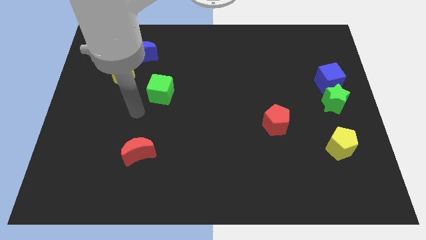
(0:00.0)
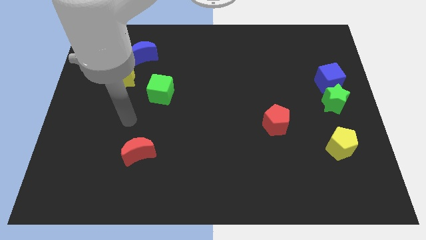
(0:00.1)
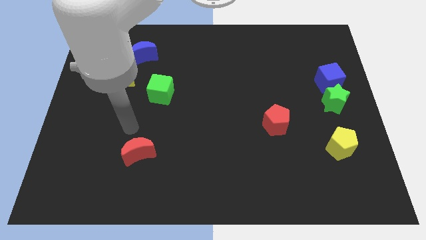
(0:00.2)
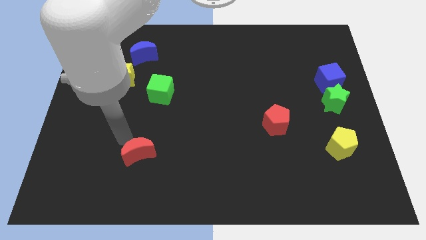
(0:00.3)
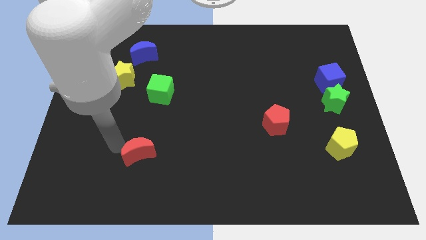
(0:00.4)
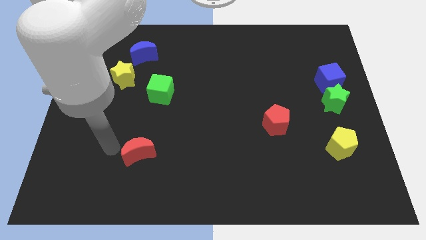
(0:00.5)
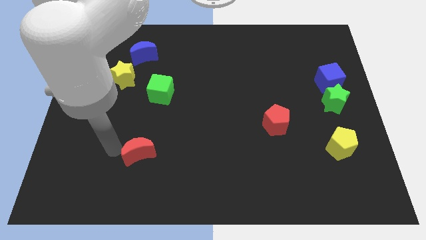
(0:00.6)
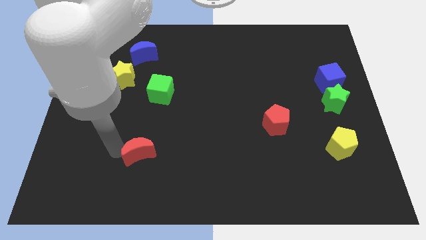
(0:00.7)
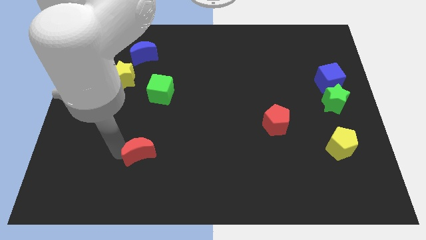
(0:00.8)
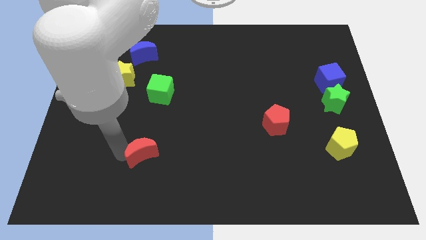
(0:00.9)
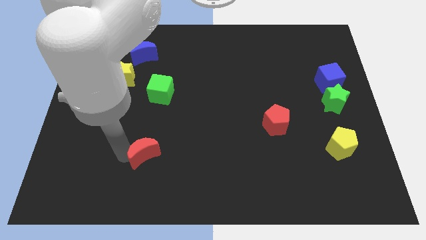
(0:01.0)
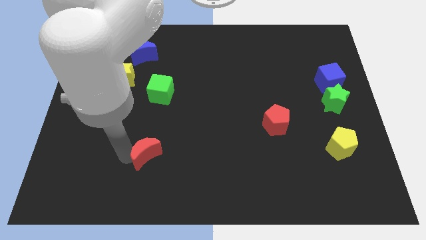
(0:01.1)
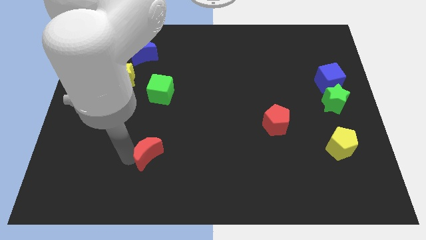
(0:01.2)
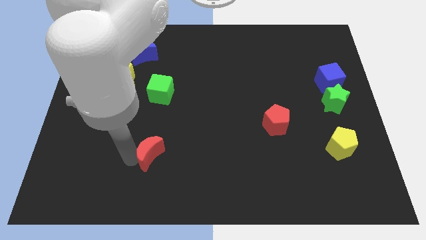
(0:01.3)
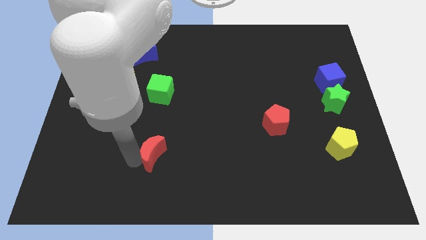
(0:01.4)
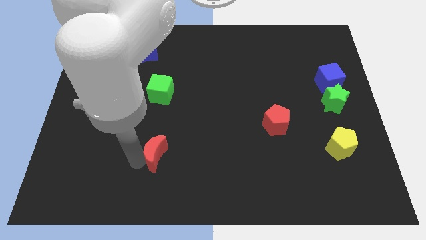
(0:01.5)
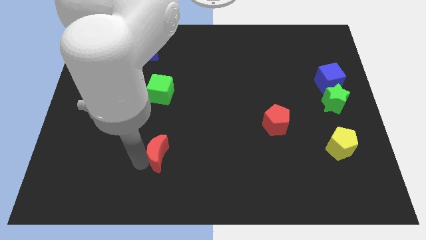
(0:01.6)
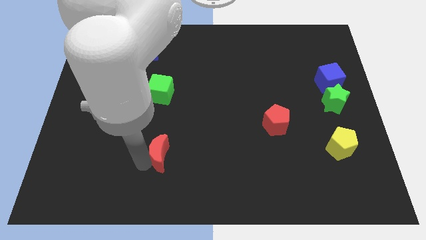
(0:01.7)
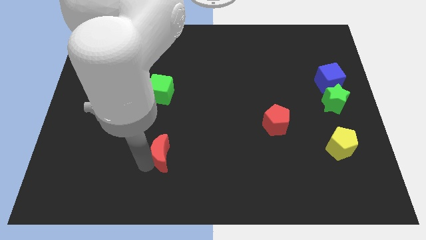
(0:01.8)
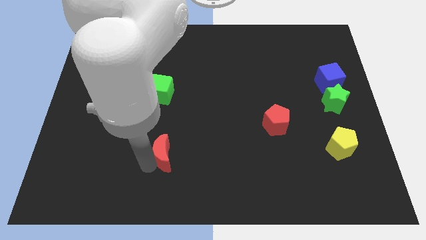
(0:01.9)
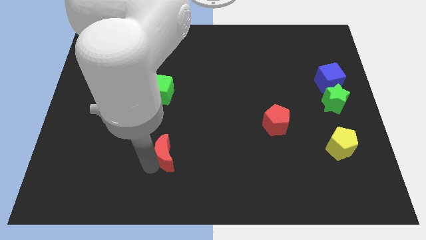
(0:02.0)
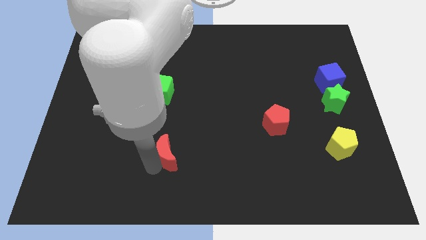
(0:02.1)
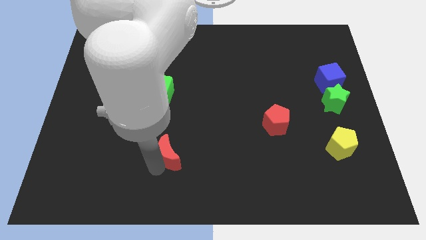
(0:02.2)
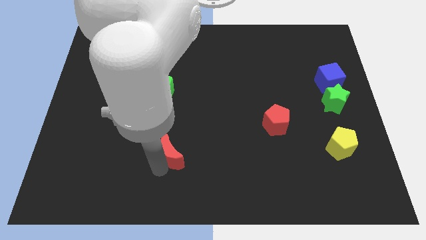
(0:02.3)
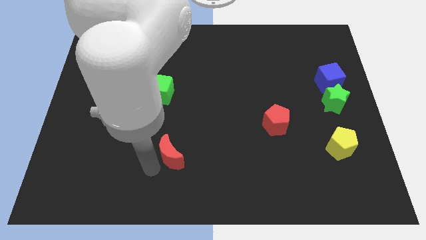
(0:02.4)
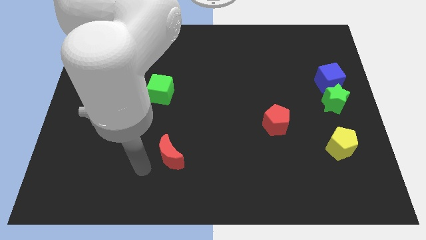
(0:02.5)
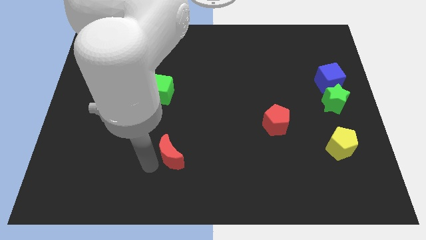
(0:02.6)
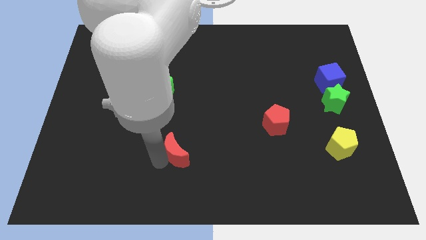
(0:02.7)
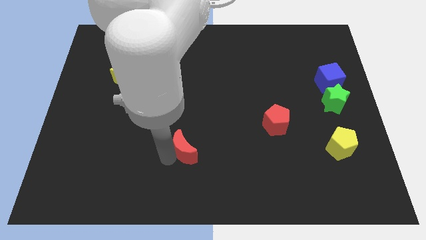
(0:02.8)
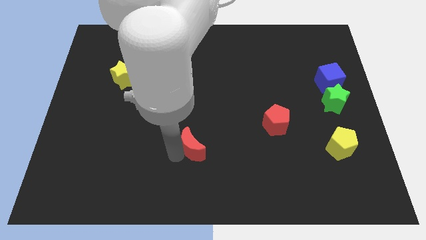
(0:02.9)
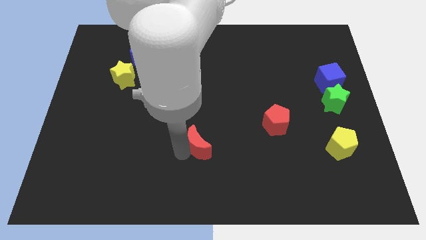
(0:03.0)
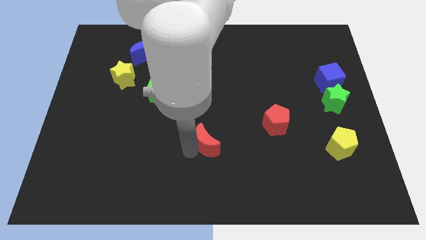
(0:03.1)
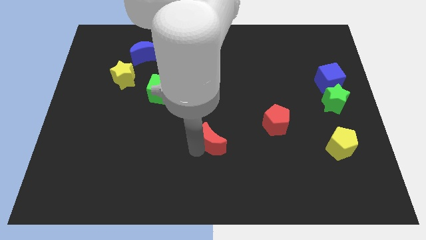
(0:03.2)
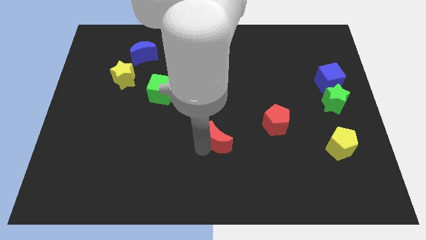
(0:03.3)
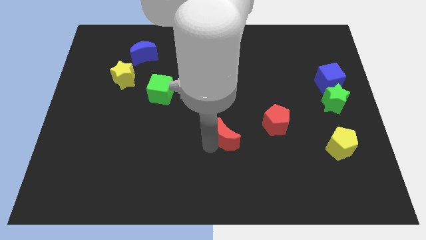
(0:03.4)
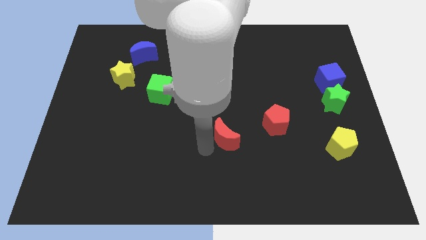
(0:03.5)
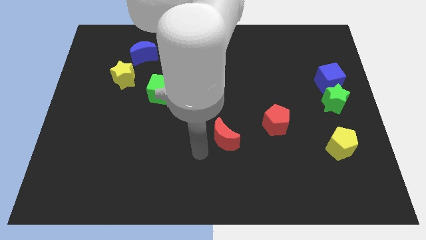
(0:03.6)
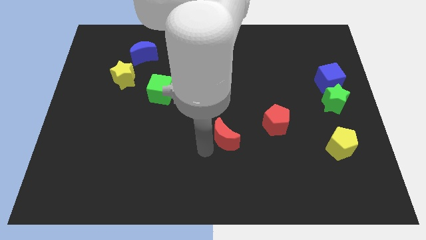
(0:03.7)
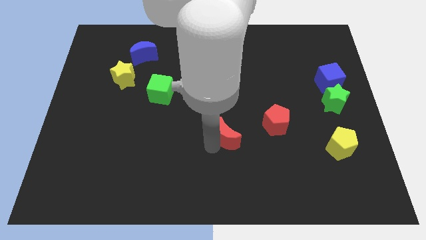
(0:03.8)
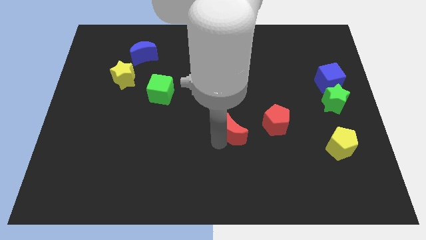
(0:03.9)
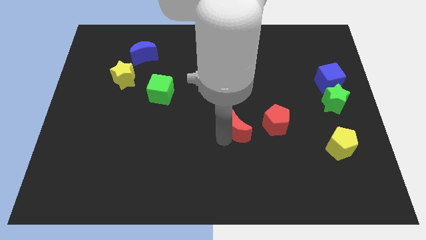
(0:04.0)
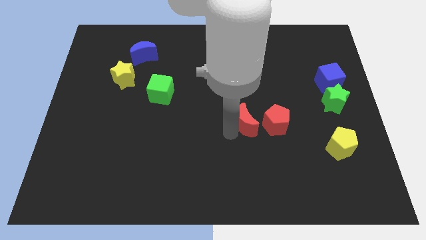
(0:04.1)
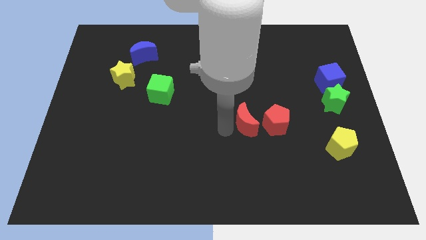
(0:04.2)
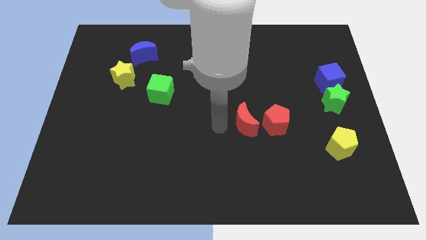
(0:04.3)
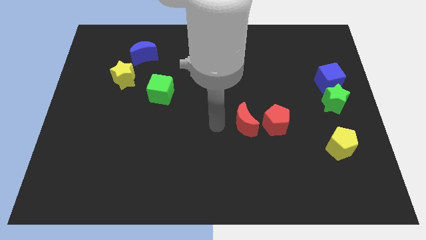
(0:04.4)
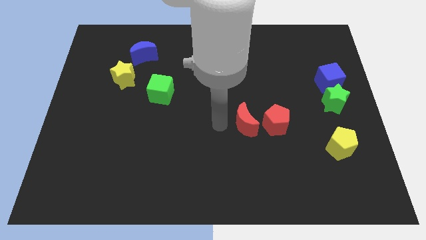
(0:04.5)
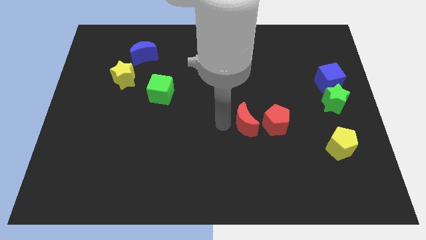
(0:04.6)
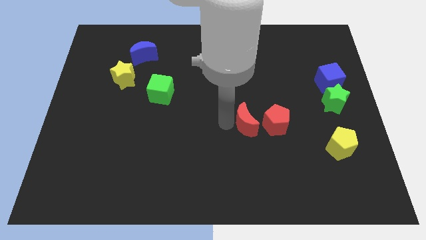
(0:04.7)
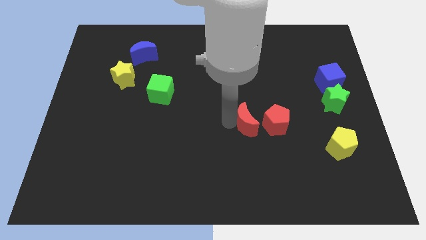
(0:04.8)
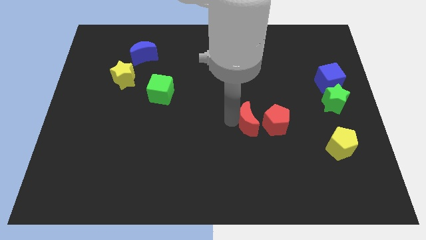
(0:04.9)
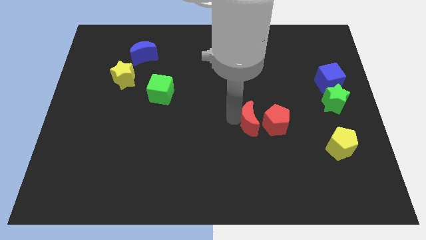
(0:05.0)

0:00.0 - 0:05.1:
put the red moon to the red pentagon

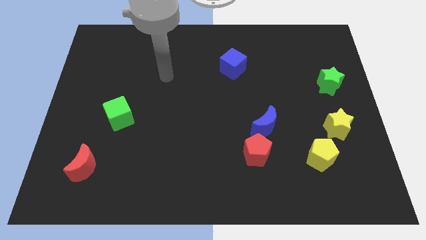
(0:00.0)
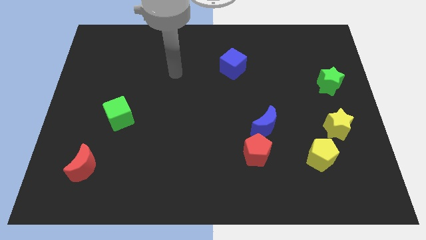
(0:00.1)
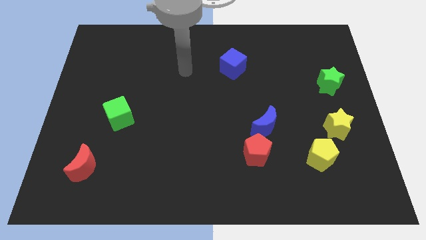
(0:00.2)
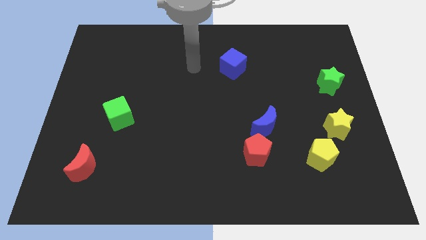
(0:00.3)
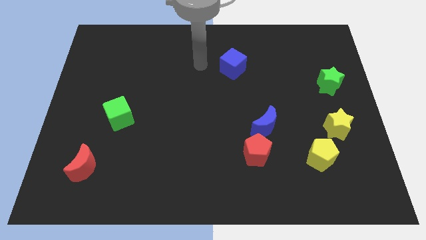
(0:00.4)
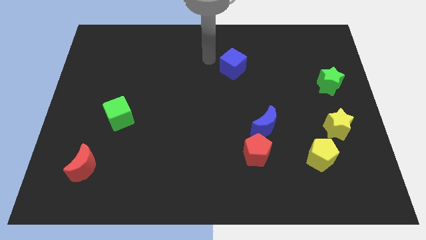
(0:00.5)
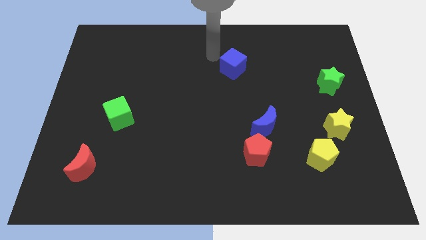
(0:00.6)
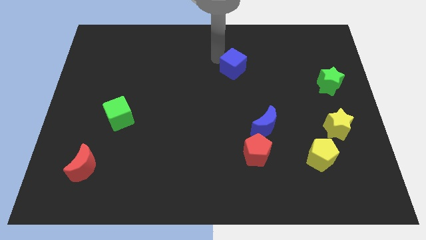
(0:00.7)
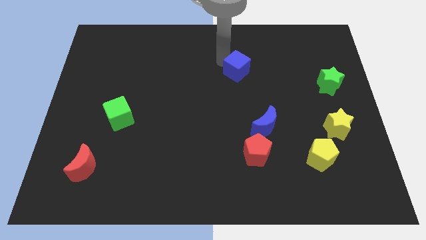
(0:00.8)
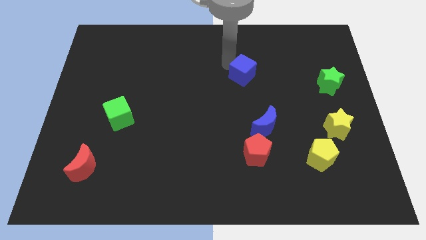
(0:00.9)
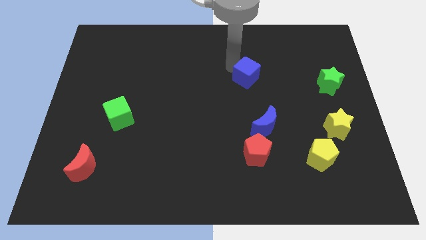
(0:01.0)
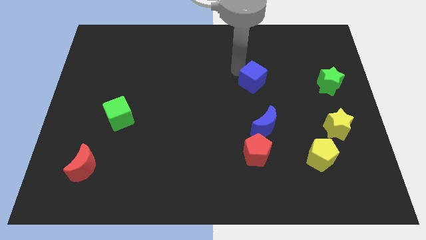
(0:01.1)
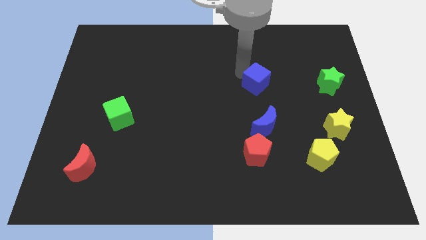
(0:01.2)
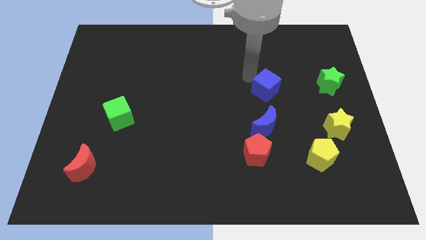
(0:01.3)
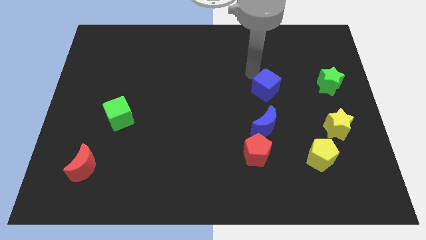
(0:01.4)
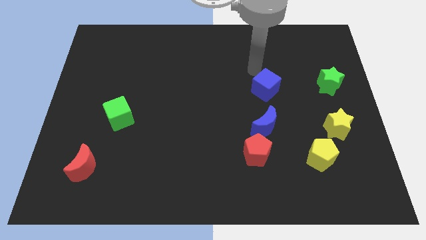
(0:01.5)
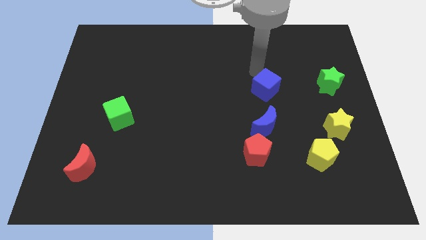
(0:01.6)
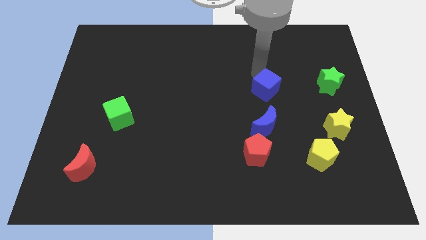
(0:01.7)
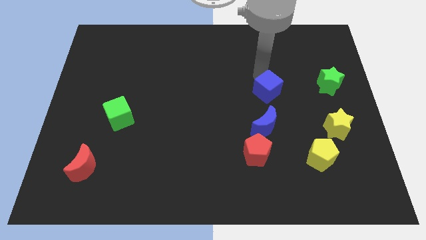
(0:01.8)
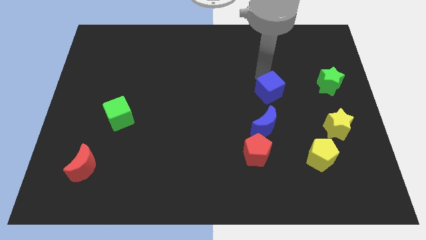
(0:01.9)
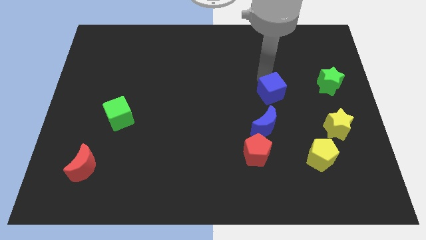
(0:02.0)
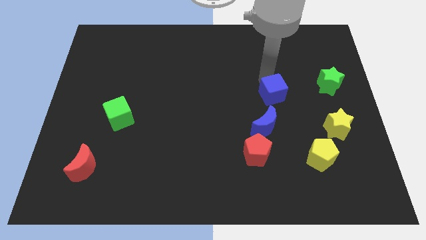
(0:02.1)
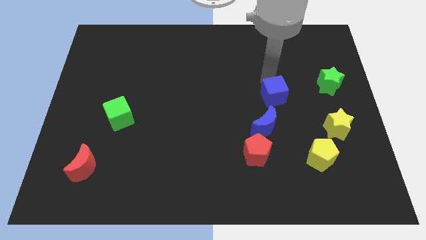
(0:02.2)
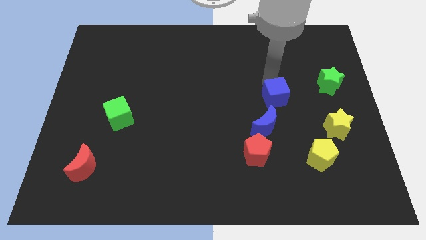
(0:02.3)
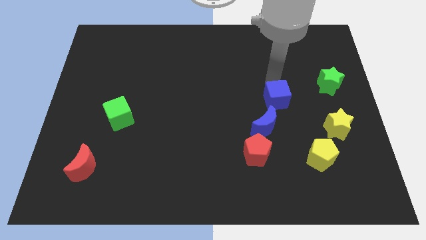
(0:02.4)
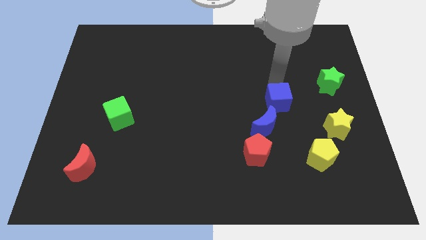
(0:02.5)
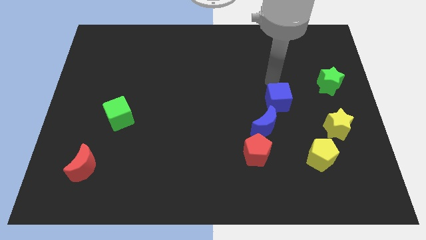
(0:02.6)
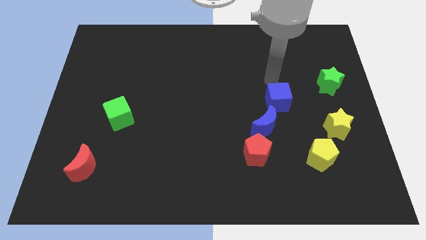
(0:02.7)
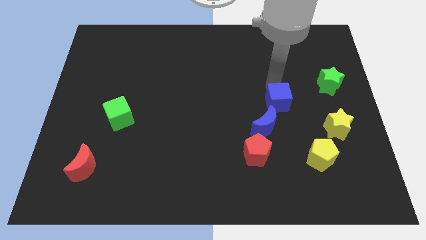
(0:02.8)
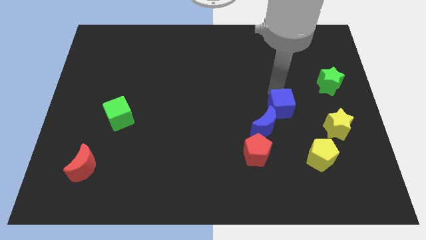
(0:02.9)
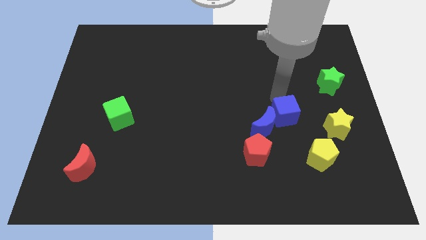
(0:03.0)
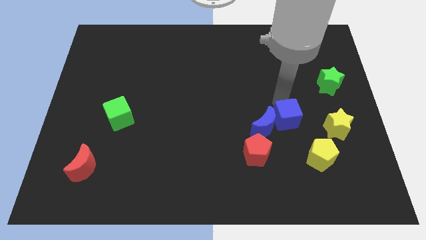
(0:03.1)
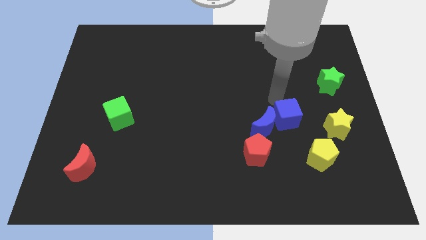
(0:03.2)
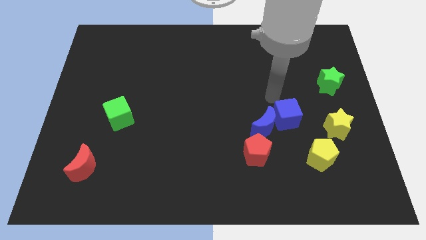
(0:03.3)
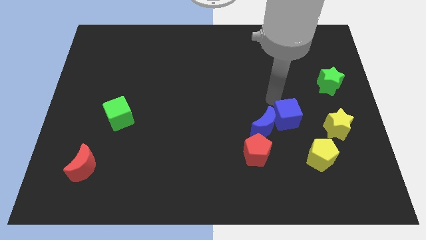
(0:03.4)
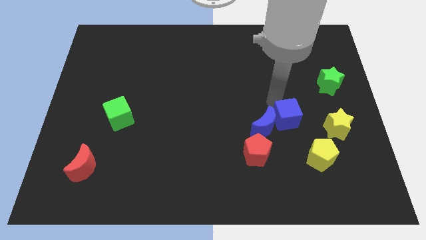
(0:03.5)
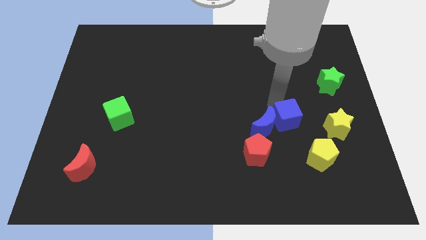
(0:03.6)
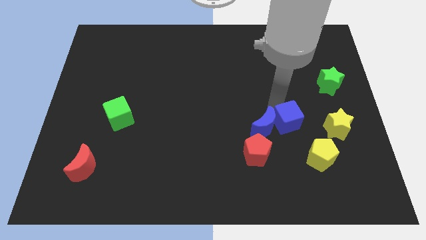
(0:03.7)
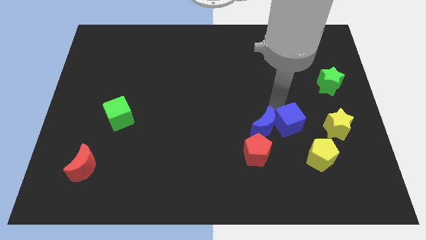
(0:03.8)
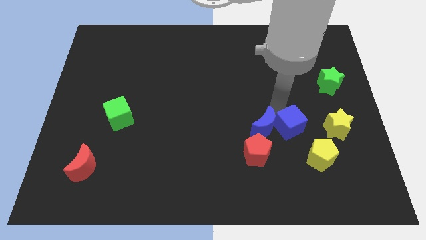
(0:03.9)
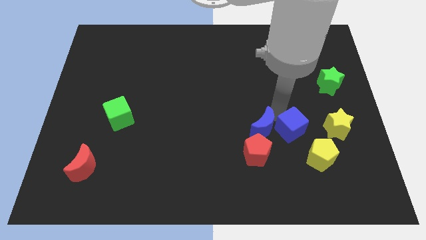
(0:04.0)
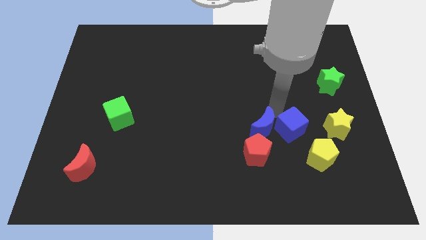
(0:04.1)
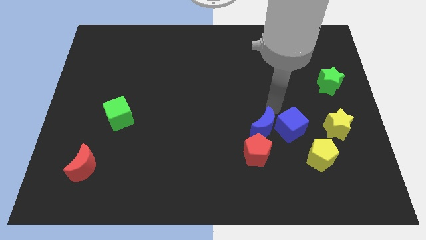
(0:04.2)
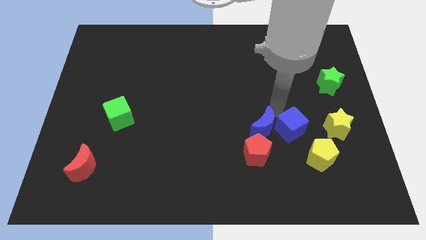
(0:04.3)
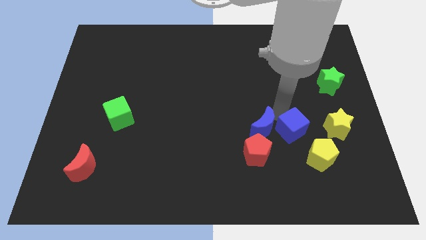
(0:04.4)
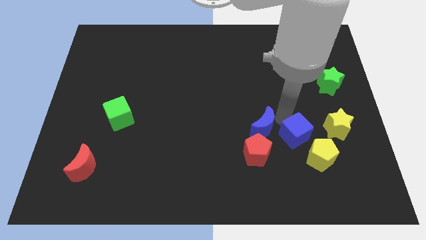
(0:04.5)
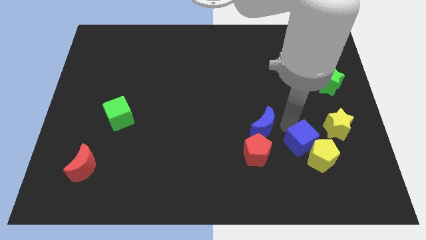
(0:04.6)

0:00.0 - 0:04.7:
push the blue cube close to the yellow pentagon
